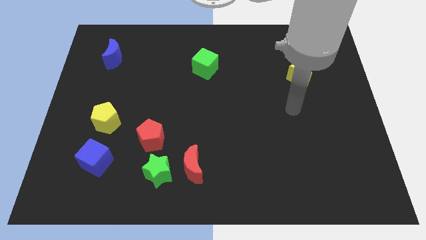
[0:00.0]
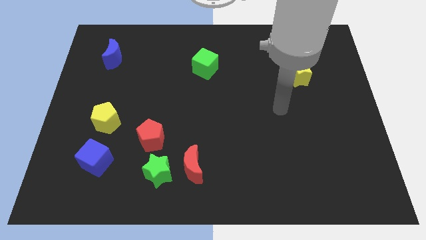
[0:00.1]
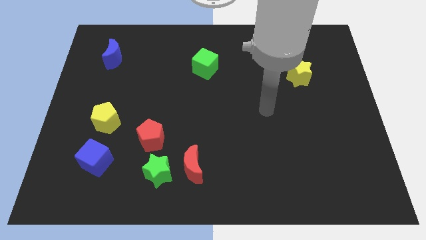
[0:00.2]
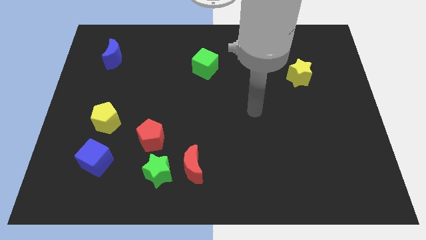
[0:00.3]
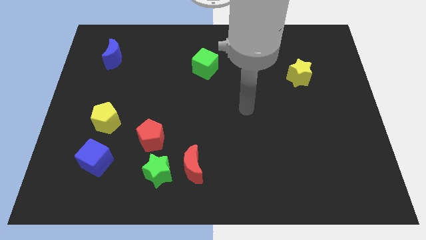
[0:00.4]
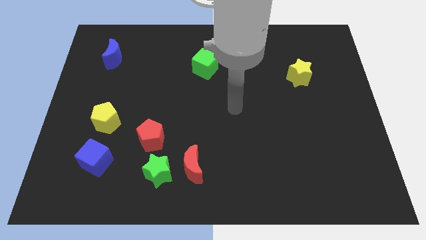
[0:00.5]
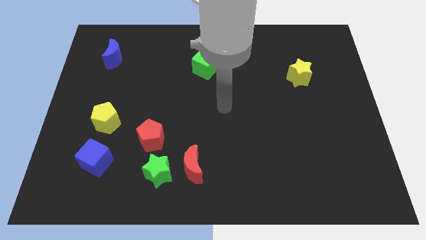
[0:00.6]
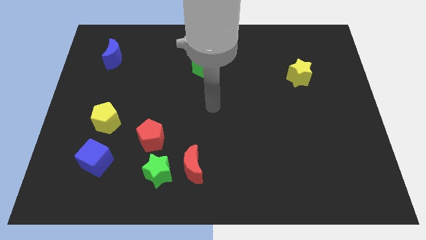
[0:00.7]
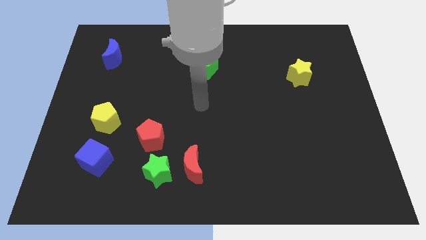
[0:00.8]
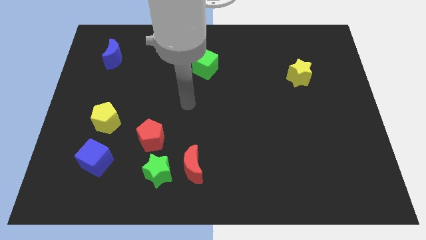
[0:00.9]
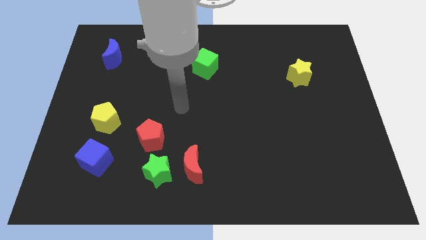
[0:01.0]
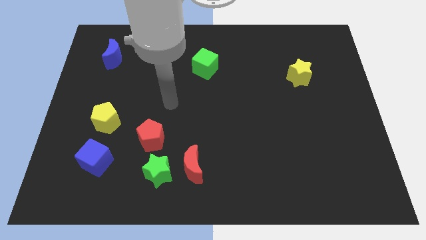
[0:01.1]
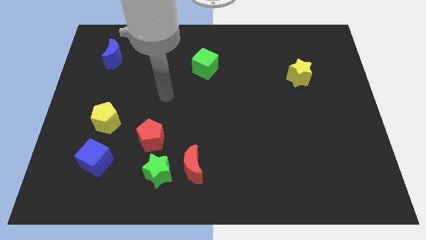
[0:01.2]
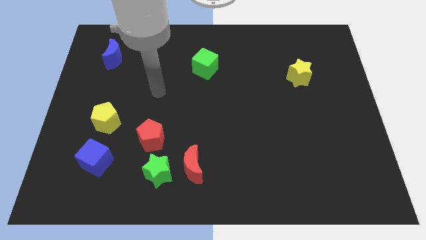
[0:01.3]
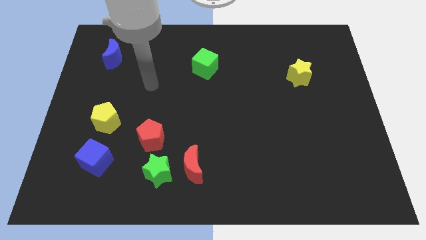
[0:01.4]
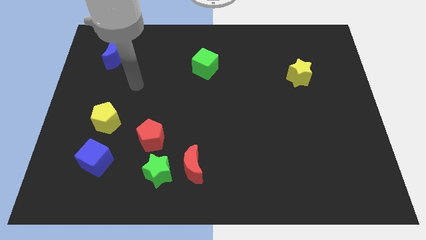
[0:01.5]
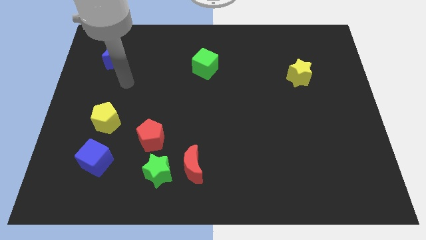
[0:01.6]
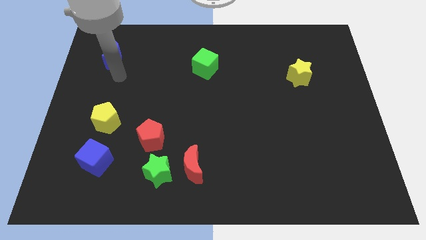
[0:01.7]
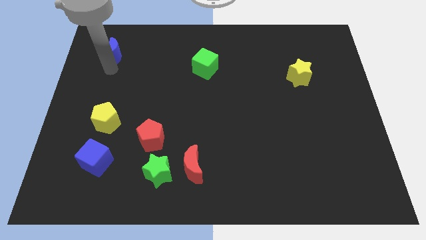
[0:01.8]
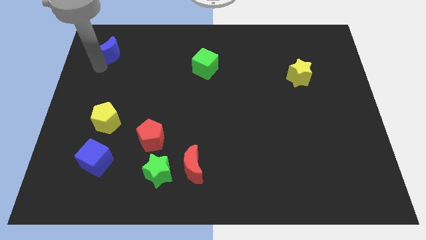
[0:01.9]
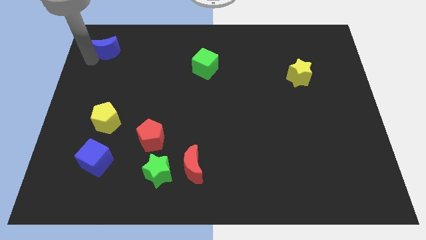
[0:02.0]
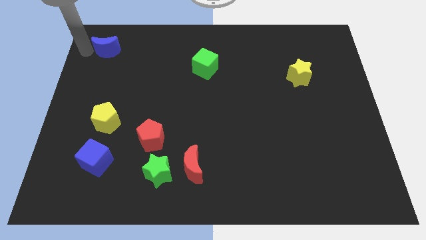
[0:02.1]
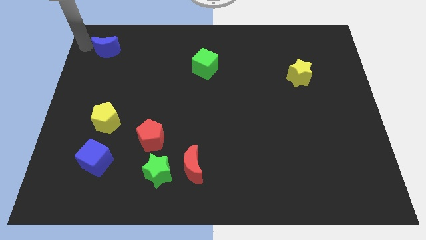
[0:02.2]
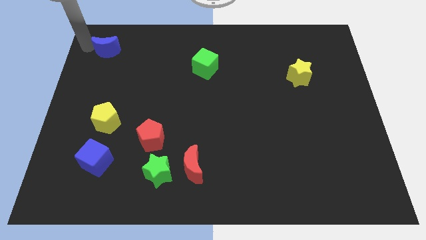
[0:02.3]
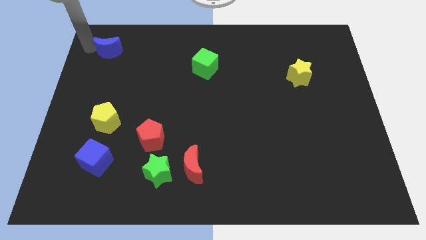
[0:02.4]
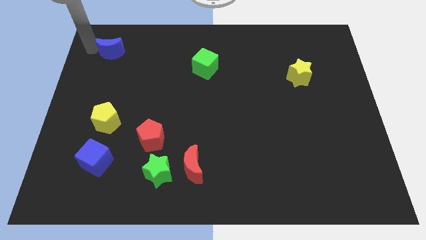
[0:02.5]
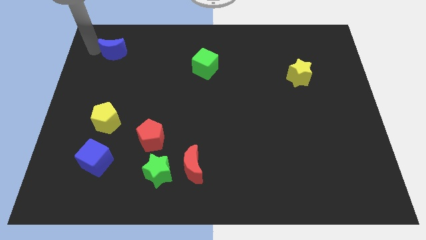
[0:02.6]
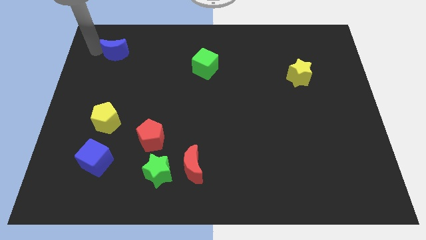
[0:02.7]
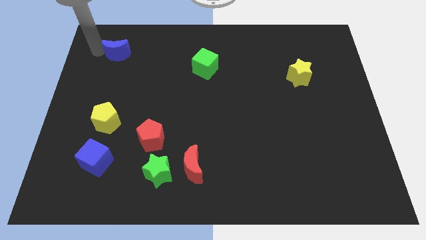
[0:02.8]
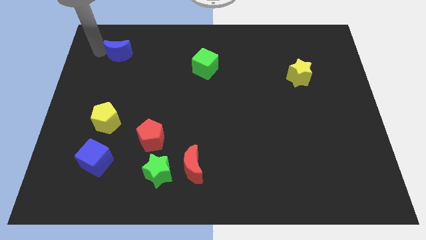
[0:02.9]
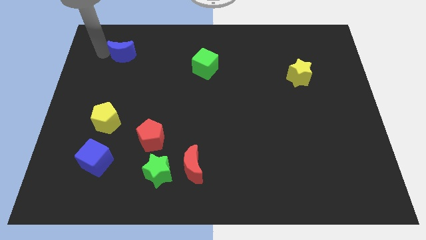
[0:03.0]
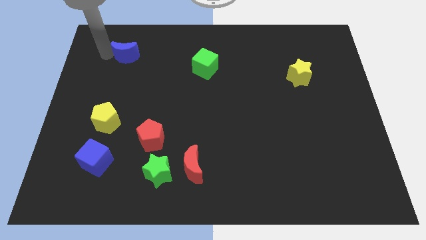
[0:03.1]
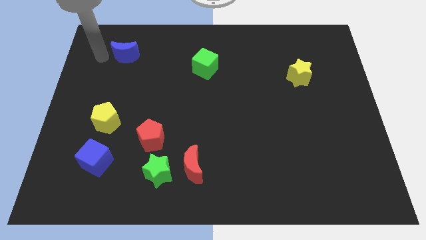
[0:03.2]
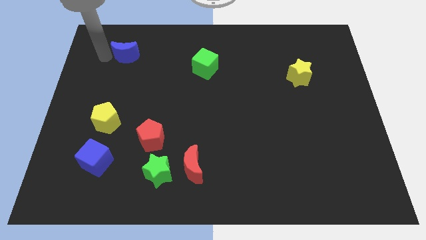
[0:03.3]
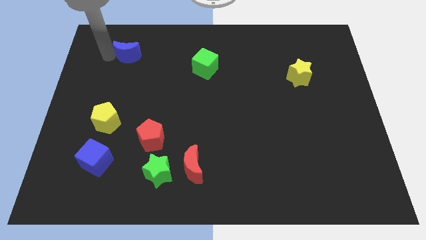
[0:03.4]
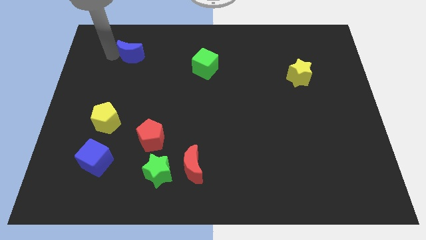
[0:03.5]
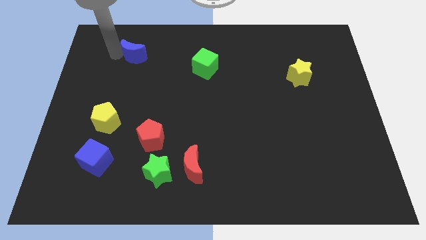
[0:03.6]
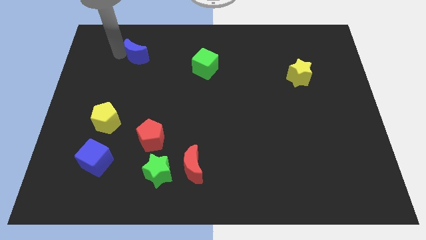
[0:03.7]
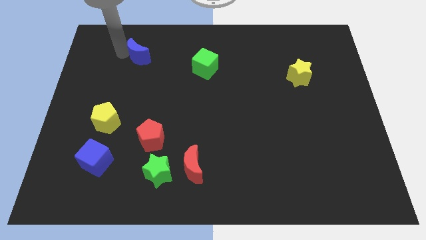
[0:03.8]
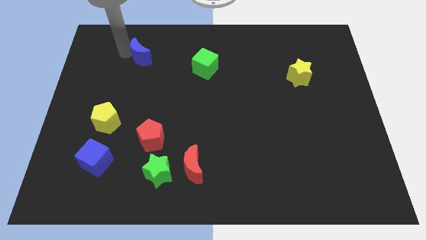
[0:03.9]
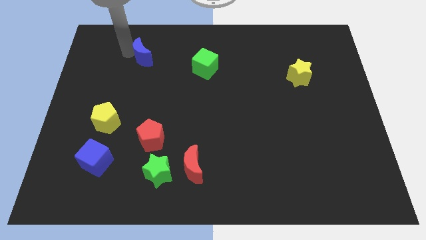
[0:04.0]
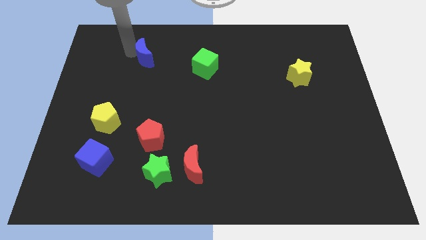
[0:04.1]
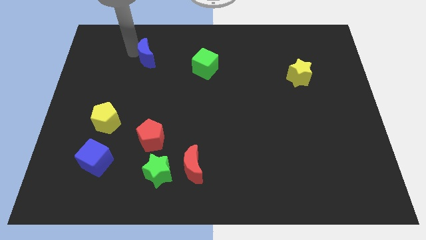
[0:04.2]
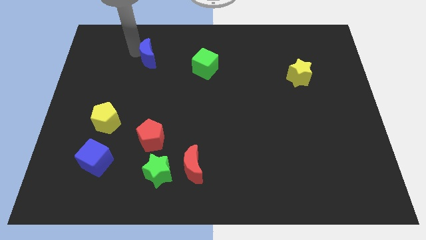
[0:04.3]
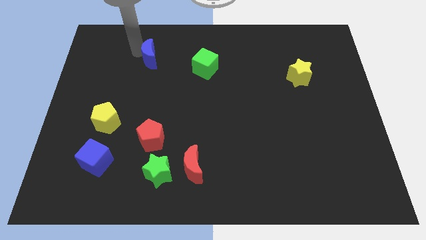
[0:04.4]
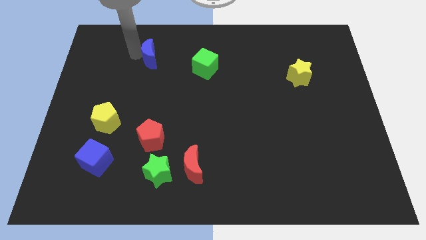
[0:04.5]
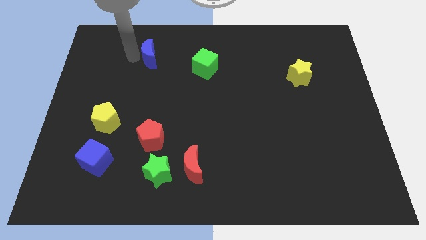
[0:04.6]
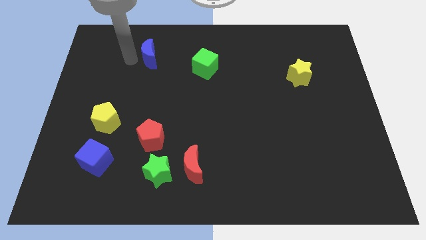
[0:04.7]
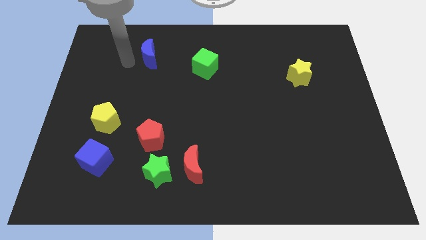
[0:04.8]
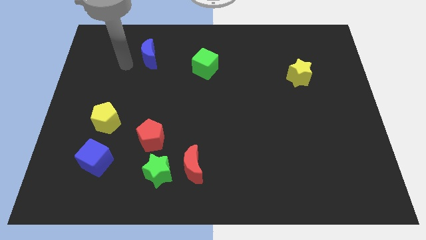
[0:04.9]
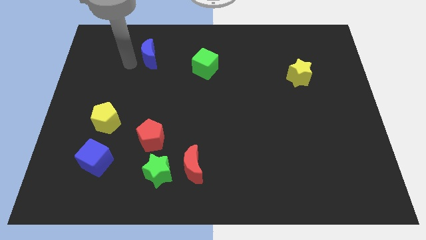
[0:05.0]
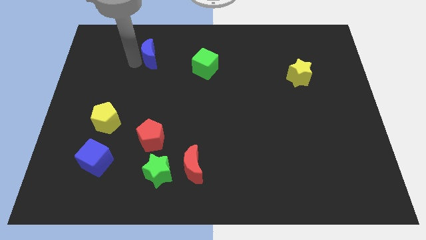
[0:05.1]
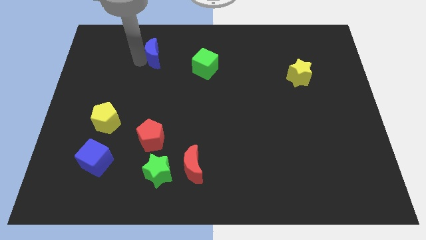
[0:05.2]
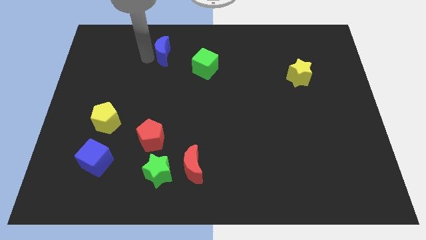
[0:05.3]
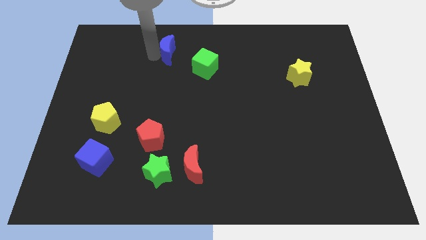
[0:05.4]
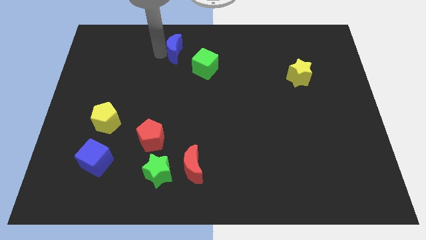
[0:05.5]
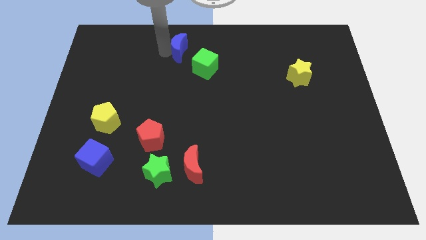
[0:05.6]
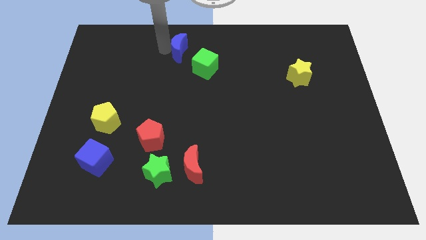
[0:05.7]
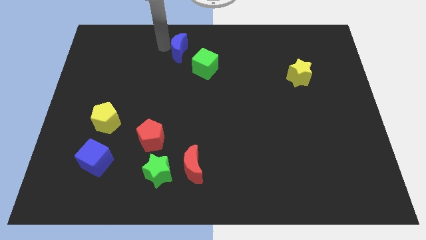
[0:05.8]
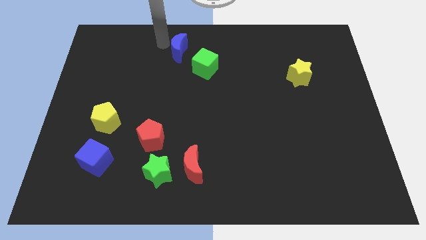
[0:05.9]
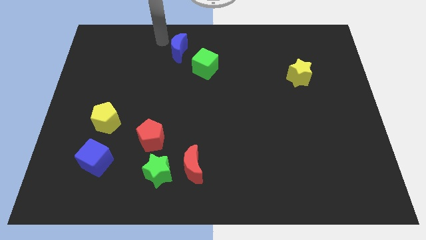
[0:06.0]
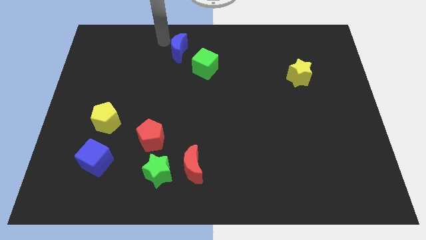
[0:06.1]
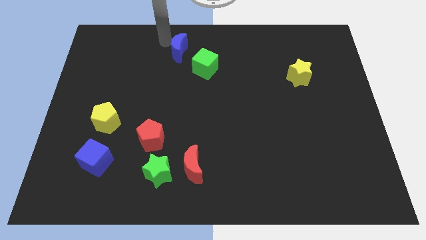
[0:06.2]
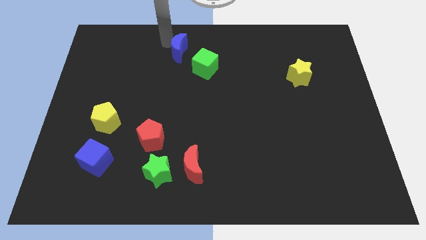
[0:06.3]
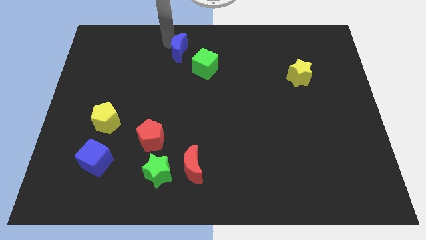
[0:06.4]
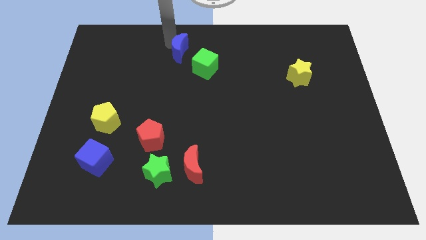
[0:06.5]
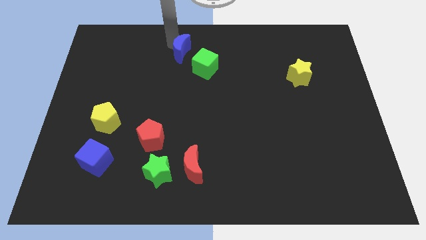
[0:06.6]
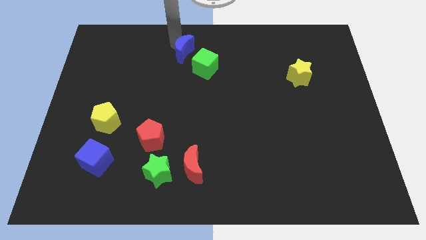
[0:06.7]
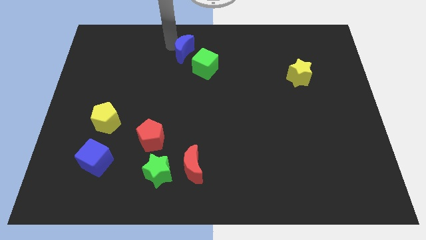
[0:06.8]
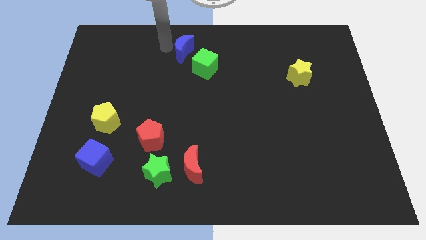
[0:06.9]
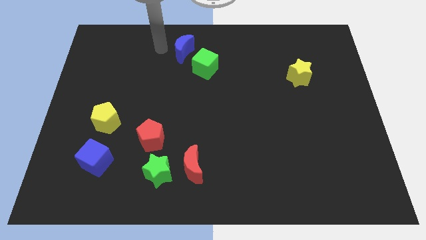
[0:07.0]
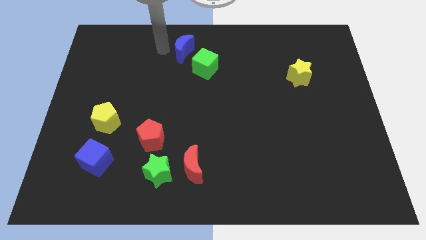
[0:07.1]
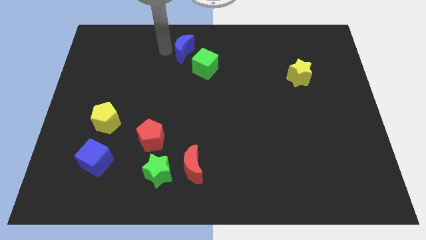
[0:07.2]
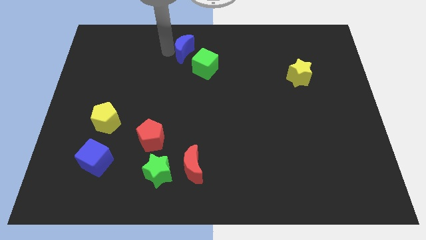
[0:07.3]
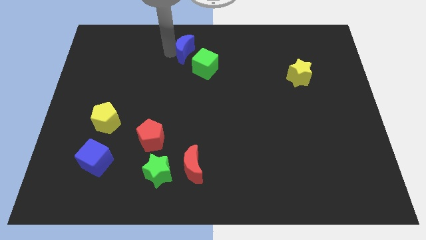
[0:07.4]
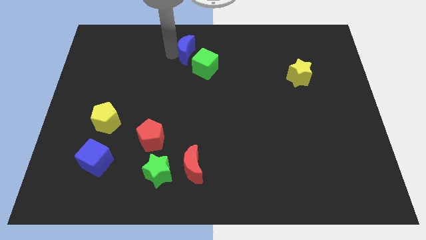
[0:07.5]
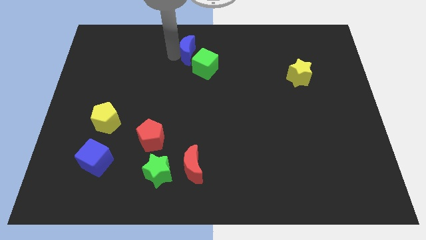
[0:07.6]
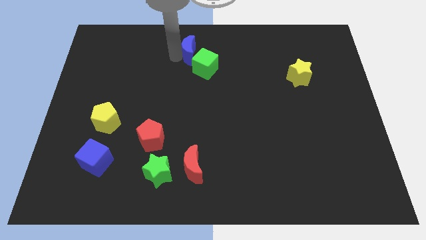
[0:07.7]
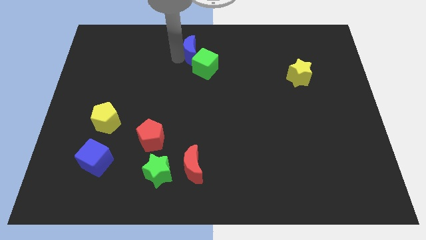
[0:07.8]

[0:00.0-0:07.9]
move the blue moon to the right

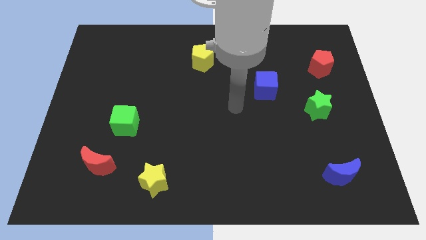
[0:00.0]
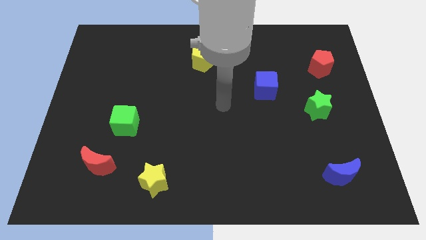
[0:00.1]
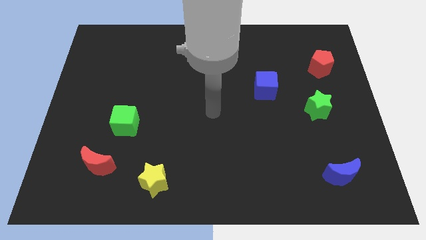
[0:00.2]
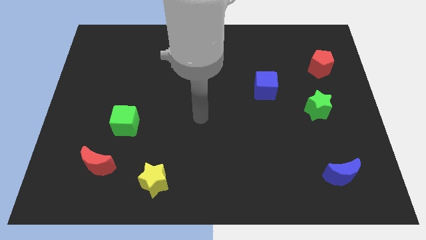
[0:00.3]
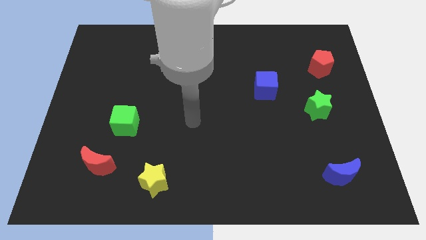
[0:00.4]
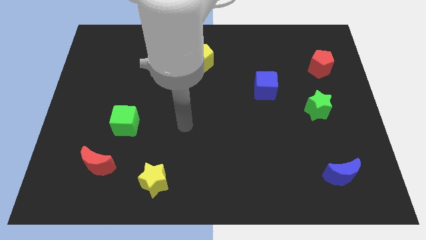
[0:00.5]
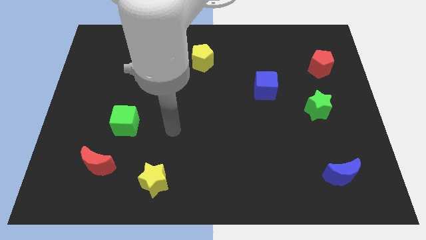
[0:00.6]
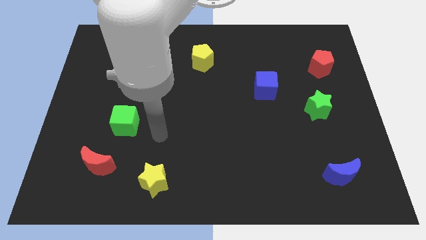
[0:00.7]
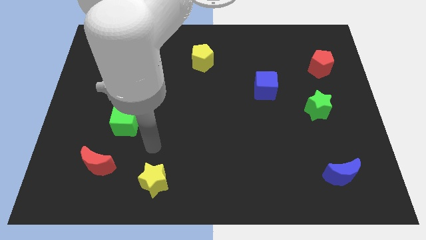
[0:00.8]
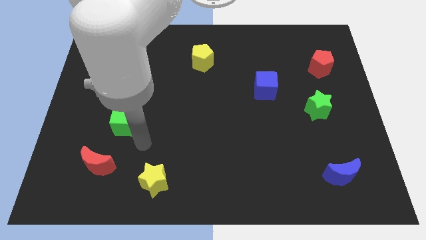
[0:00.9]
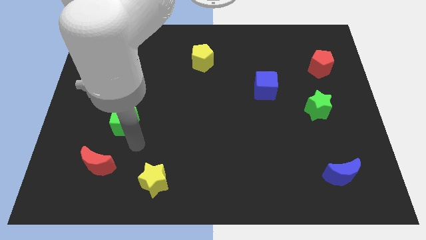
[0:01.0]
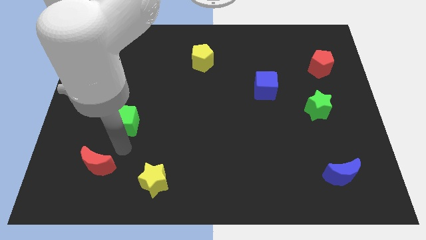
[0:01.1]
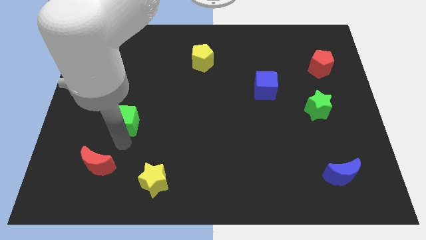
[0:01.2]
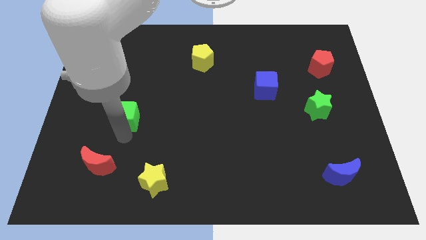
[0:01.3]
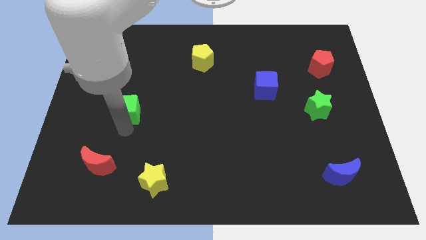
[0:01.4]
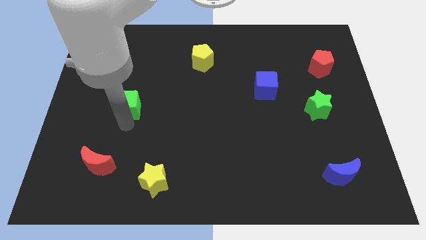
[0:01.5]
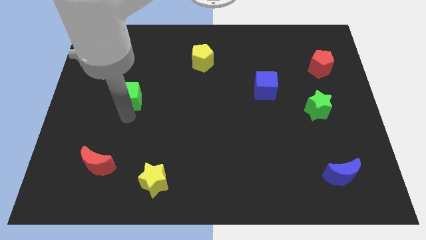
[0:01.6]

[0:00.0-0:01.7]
slide the green cube a little bit up
